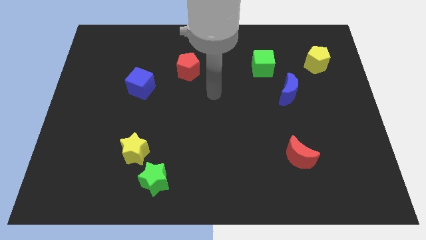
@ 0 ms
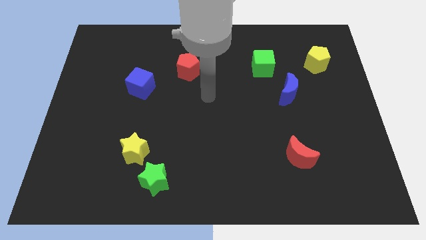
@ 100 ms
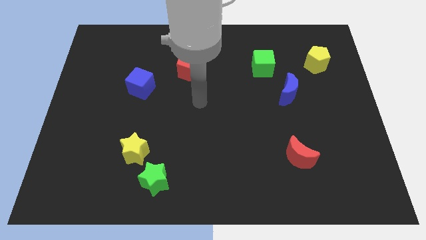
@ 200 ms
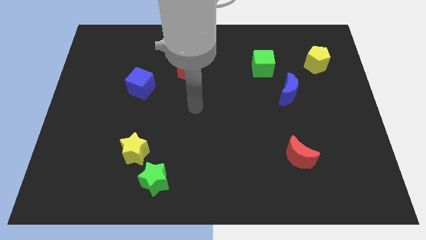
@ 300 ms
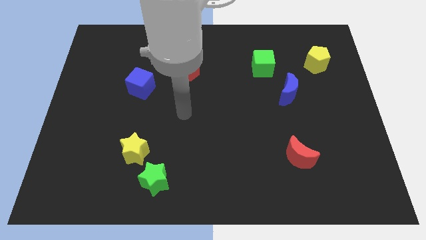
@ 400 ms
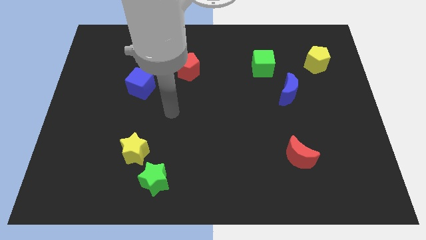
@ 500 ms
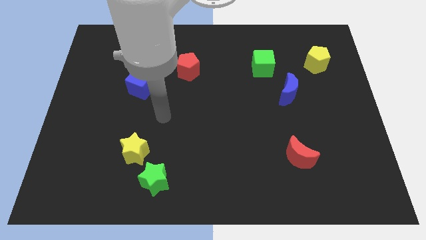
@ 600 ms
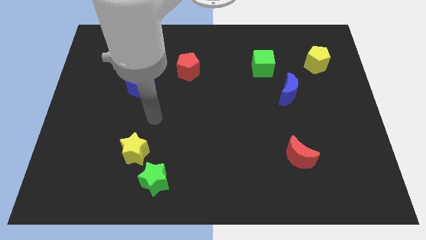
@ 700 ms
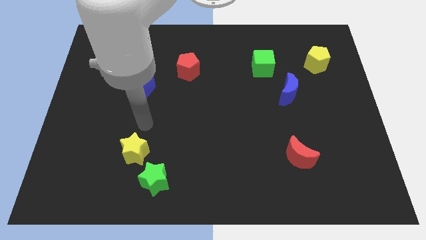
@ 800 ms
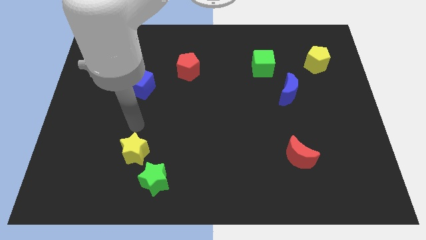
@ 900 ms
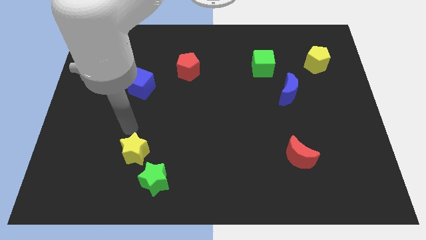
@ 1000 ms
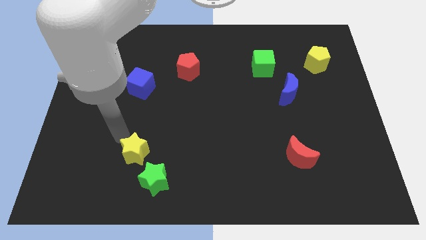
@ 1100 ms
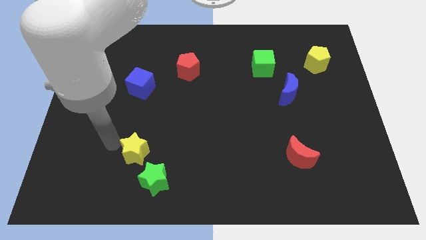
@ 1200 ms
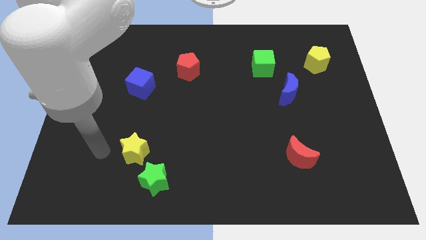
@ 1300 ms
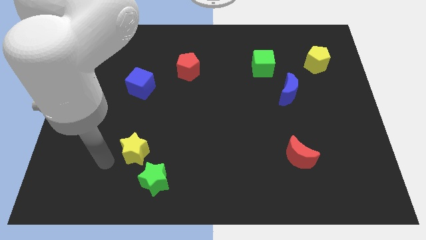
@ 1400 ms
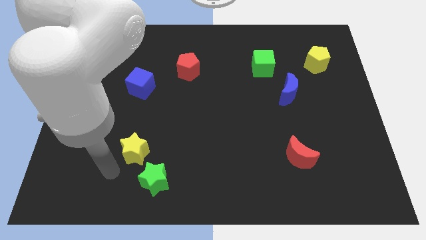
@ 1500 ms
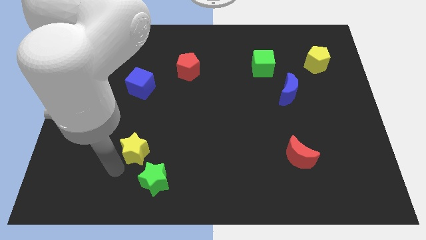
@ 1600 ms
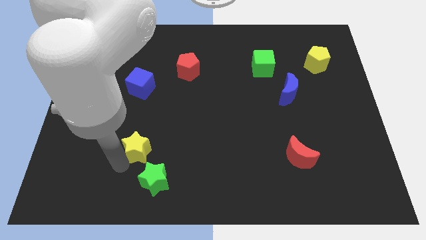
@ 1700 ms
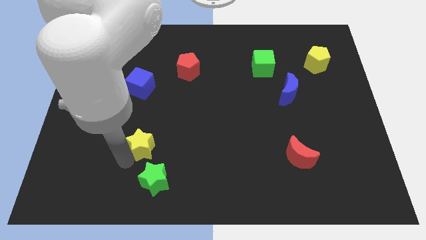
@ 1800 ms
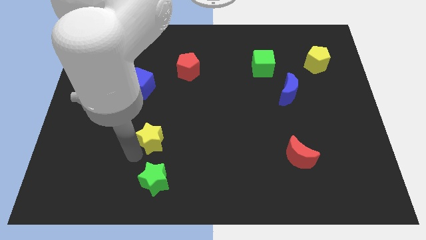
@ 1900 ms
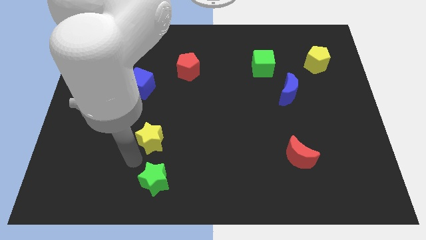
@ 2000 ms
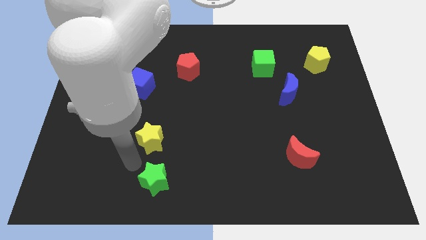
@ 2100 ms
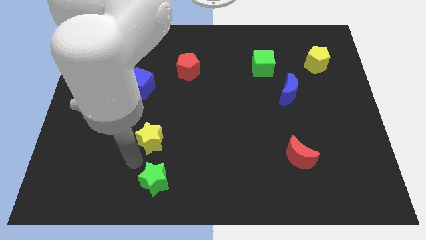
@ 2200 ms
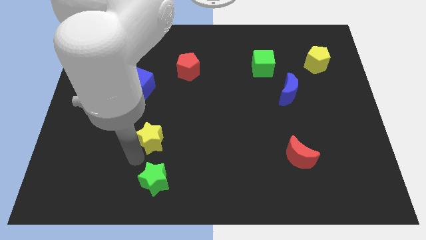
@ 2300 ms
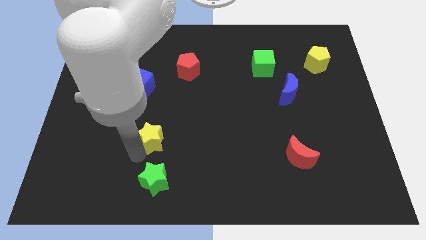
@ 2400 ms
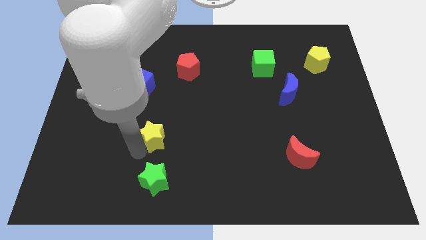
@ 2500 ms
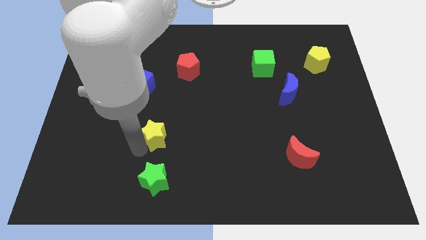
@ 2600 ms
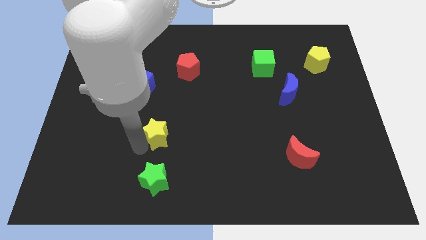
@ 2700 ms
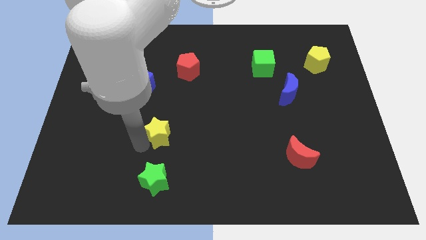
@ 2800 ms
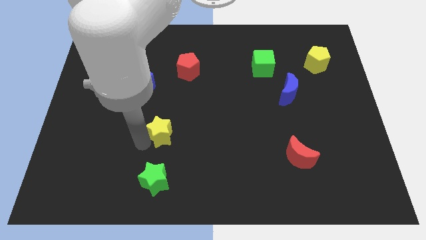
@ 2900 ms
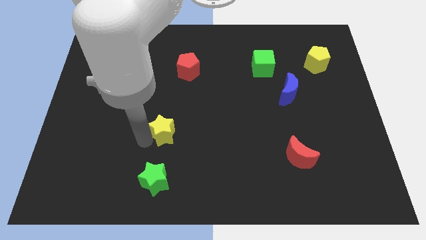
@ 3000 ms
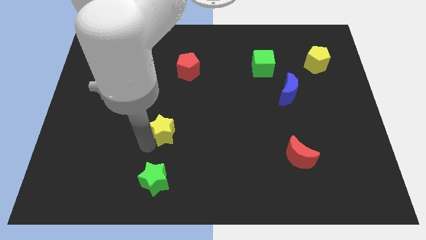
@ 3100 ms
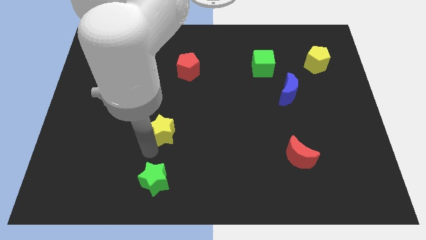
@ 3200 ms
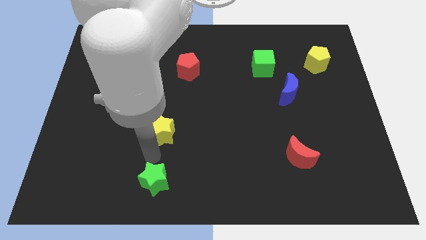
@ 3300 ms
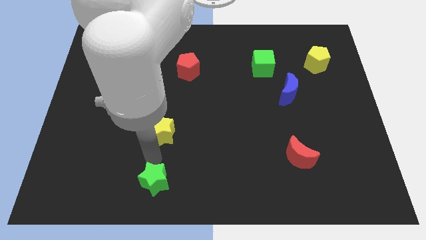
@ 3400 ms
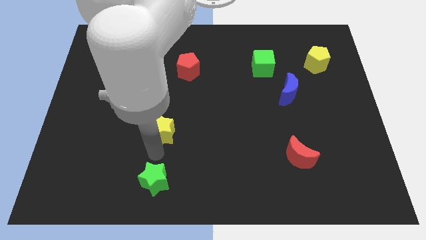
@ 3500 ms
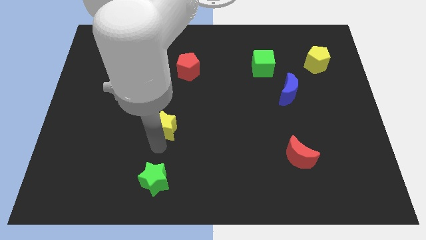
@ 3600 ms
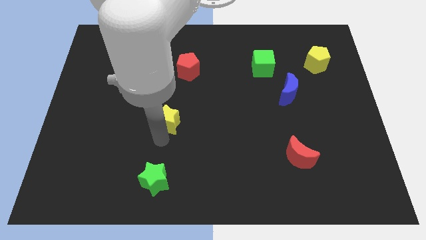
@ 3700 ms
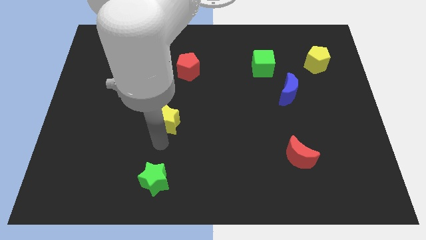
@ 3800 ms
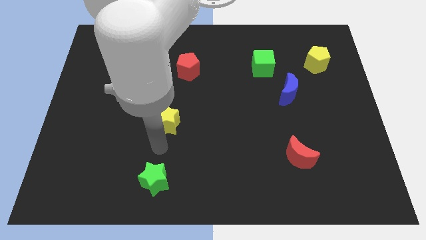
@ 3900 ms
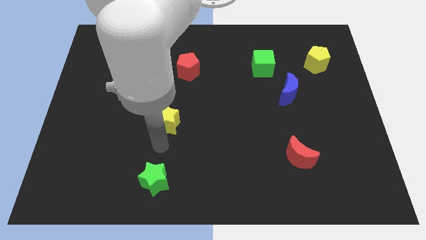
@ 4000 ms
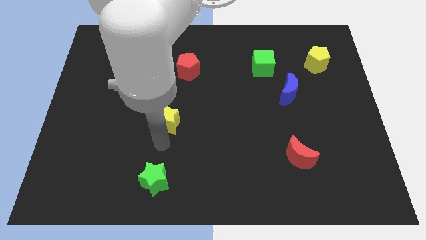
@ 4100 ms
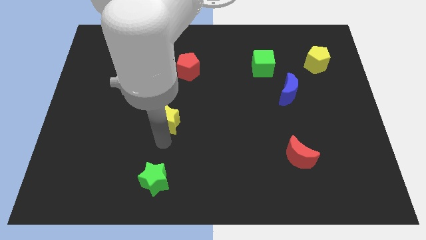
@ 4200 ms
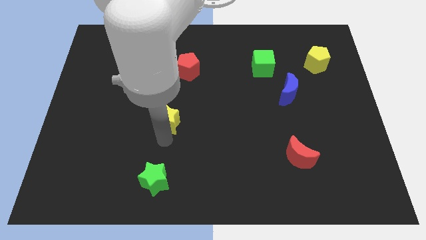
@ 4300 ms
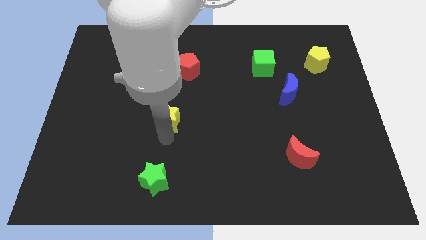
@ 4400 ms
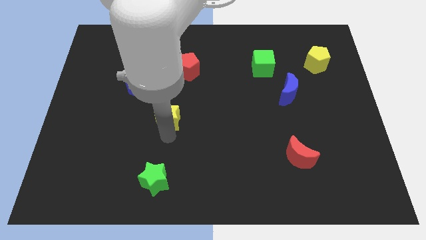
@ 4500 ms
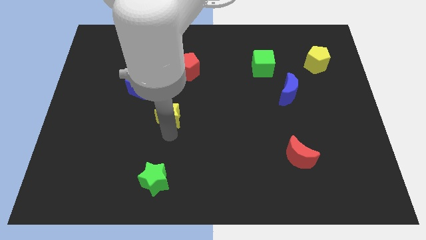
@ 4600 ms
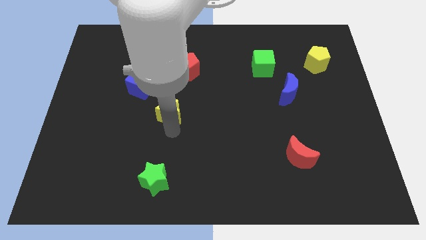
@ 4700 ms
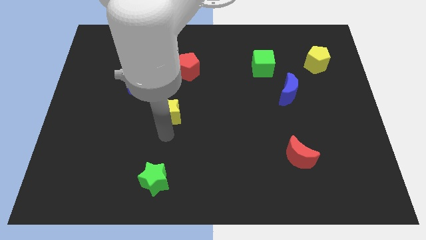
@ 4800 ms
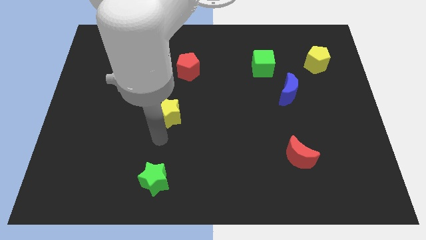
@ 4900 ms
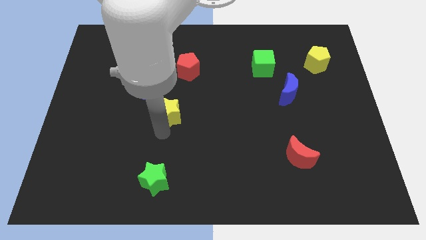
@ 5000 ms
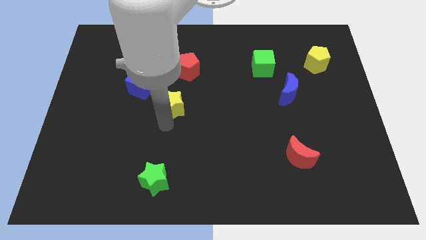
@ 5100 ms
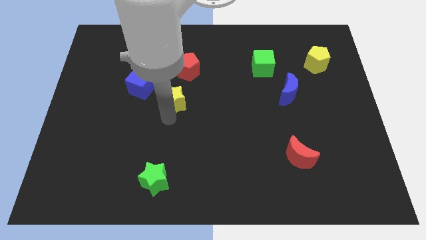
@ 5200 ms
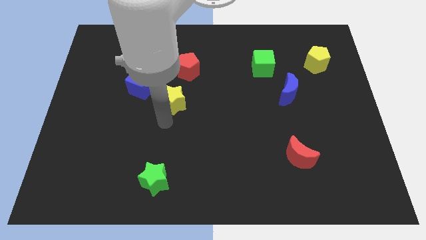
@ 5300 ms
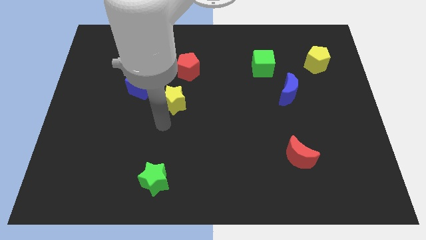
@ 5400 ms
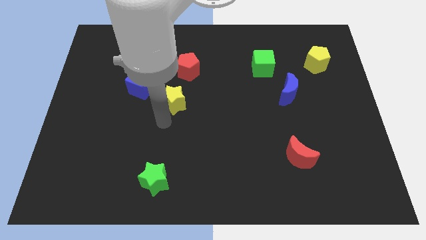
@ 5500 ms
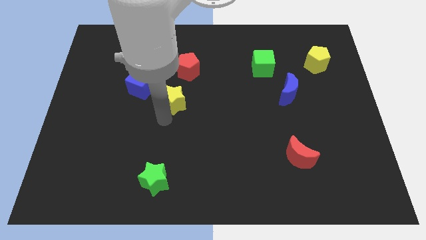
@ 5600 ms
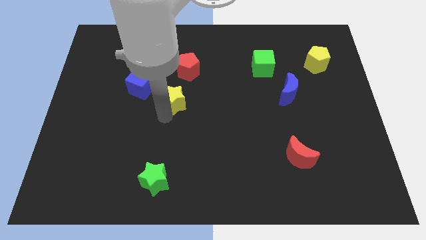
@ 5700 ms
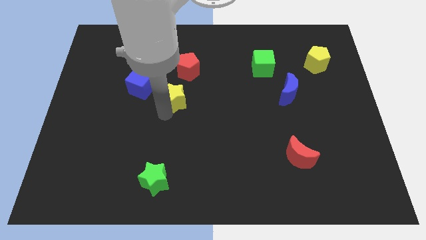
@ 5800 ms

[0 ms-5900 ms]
slide the yellow star to the right side of the blue cube

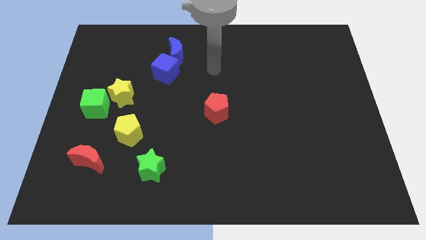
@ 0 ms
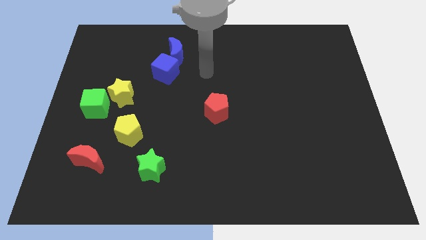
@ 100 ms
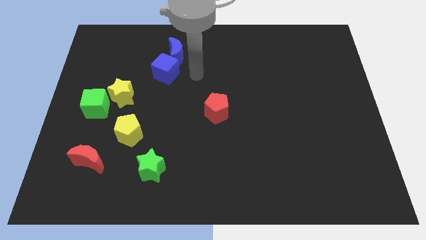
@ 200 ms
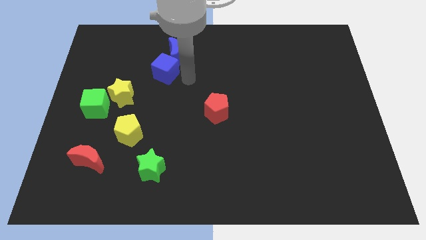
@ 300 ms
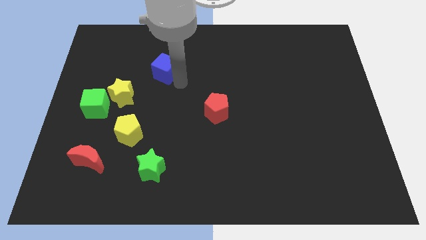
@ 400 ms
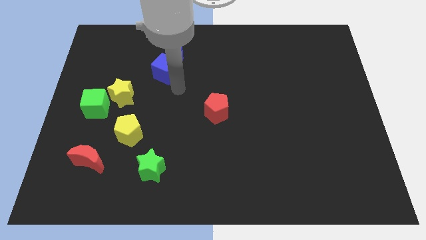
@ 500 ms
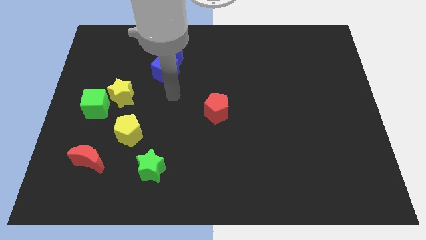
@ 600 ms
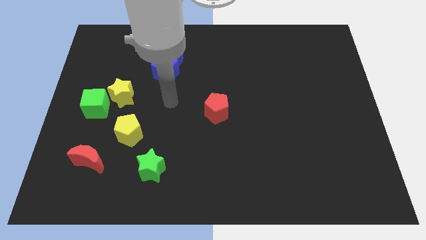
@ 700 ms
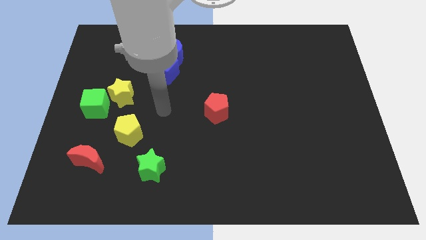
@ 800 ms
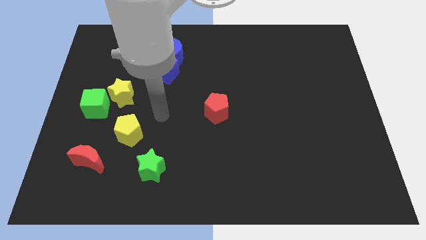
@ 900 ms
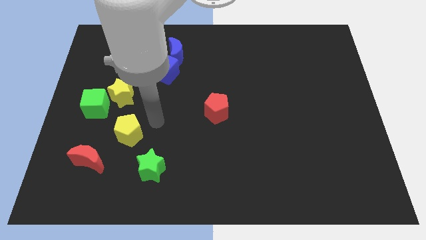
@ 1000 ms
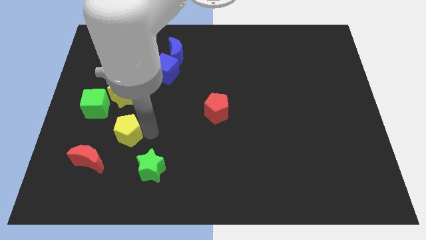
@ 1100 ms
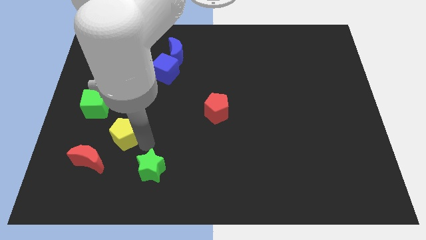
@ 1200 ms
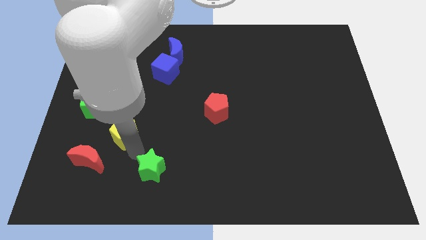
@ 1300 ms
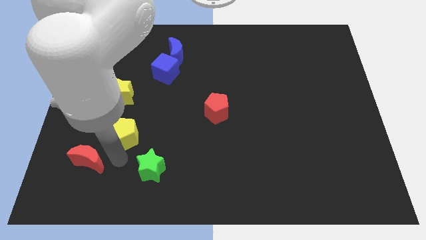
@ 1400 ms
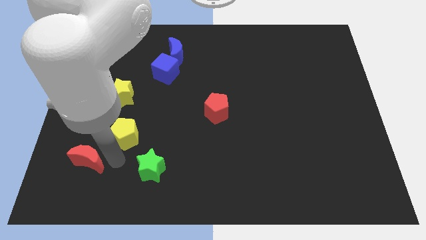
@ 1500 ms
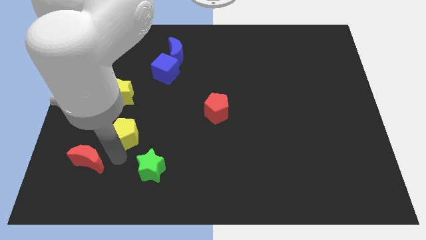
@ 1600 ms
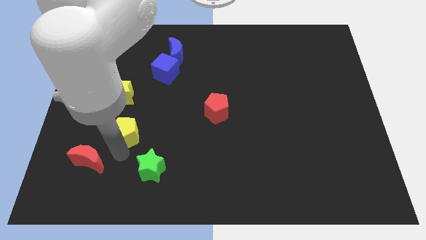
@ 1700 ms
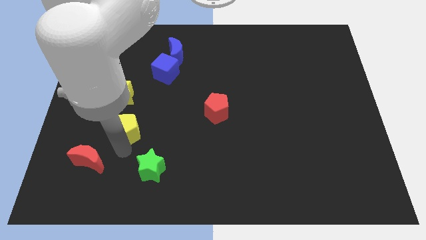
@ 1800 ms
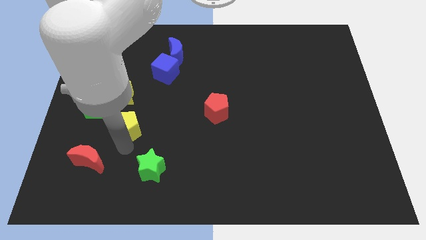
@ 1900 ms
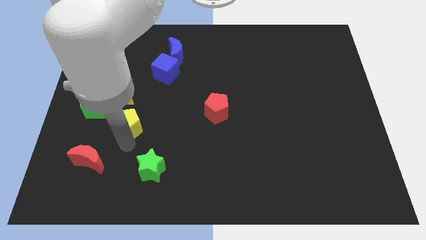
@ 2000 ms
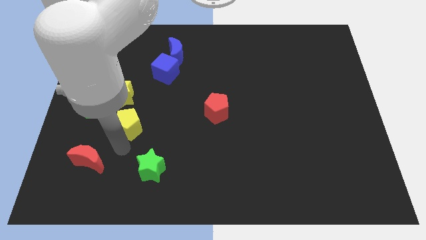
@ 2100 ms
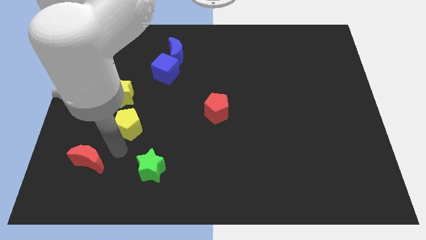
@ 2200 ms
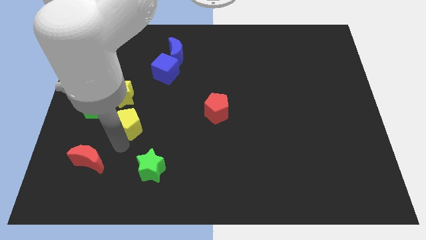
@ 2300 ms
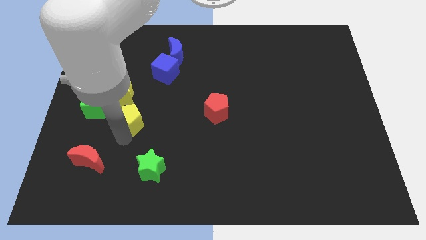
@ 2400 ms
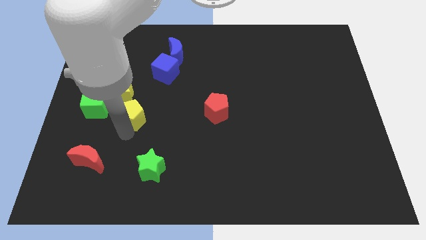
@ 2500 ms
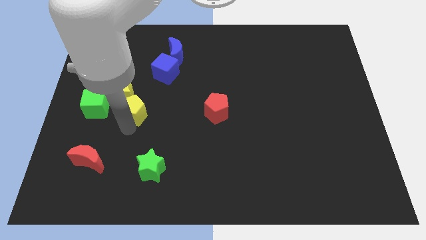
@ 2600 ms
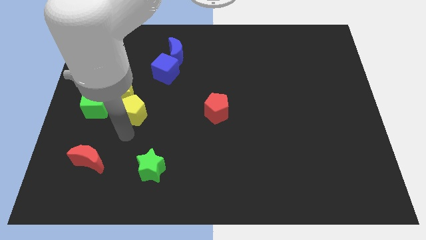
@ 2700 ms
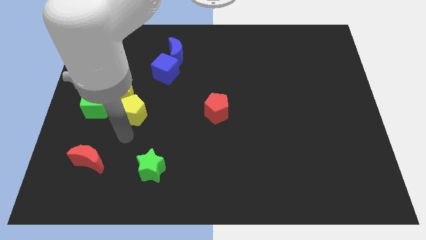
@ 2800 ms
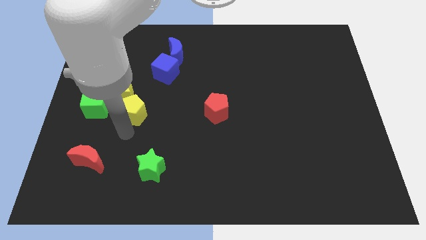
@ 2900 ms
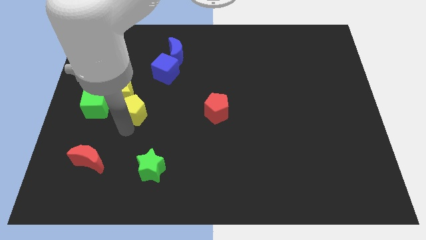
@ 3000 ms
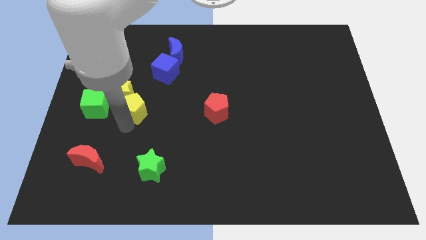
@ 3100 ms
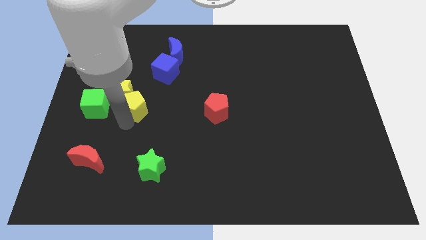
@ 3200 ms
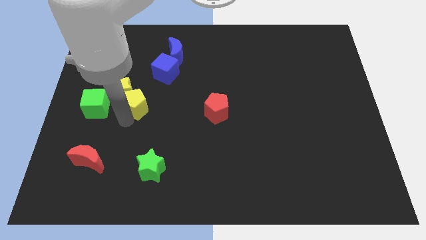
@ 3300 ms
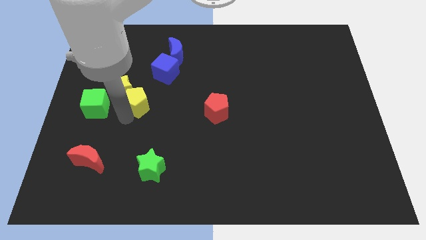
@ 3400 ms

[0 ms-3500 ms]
put the yellow pentagon diagonally down and to the left of the blue cube
